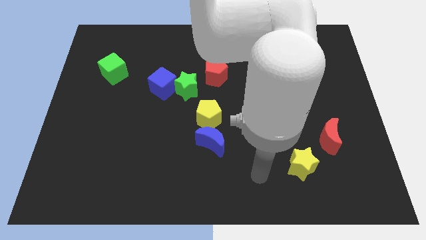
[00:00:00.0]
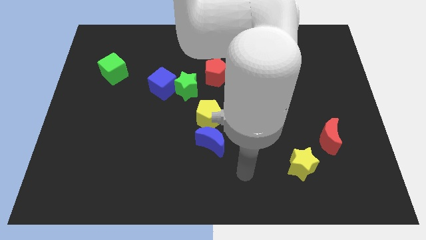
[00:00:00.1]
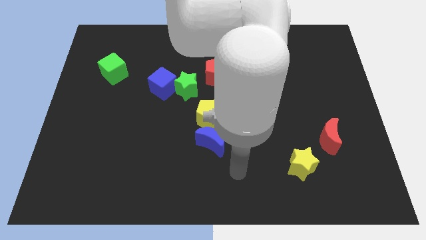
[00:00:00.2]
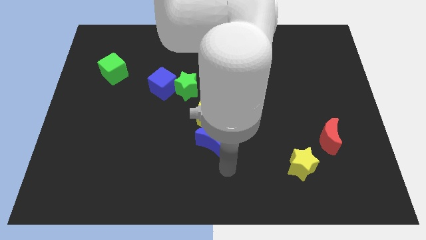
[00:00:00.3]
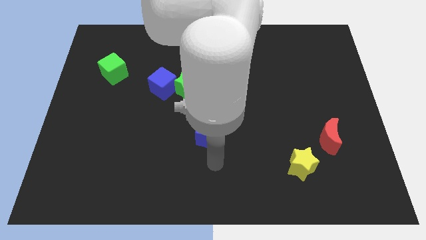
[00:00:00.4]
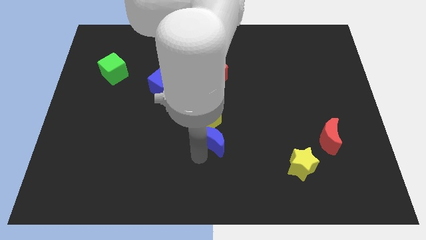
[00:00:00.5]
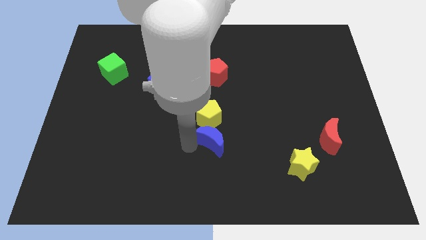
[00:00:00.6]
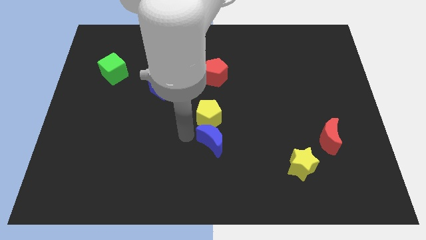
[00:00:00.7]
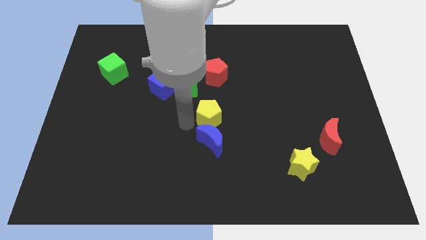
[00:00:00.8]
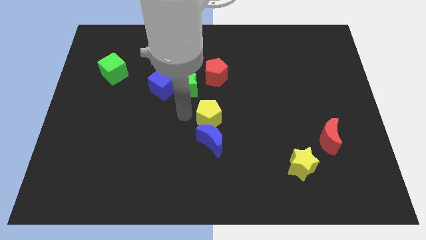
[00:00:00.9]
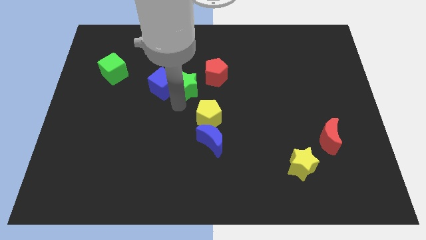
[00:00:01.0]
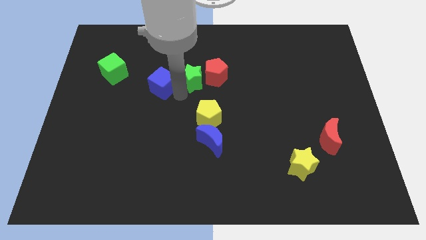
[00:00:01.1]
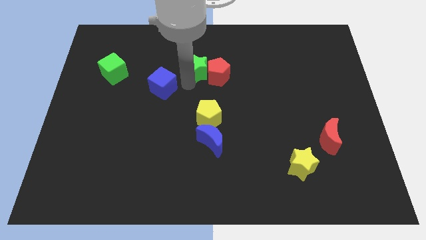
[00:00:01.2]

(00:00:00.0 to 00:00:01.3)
move the blue cube away from the green star

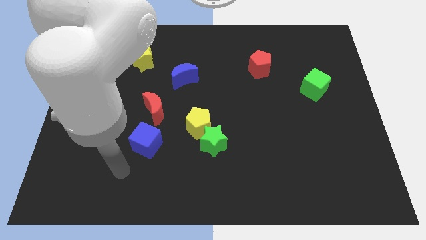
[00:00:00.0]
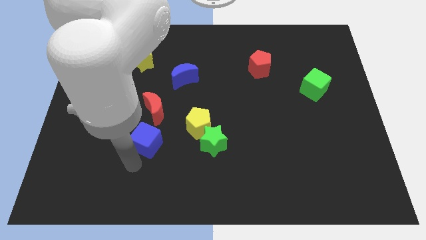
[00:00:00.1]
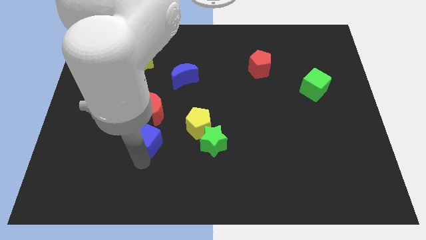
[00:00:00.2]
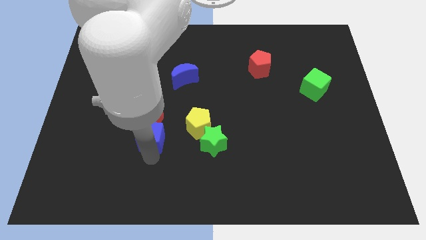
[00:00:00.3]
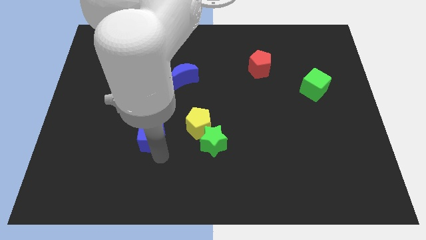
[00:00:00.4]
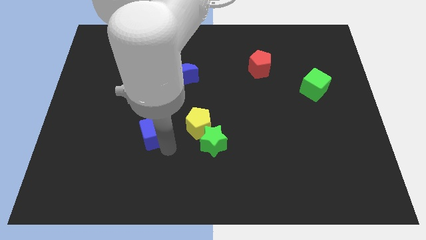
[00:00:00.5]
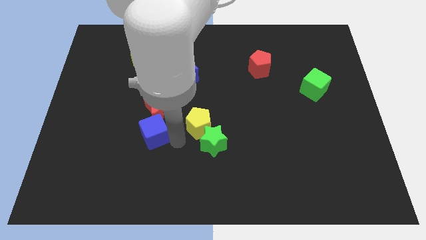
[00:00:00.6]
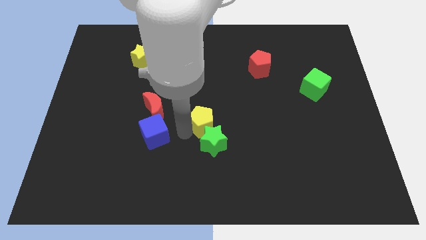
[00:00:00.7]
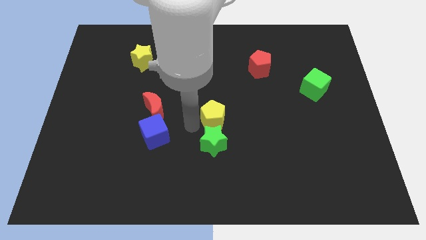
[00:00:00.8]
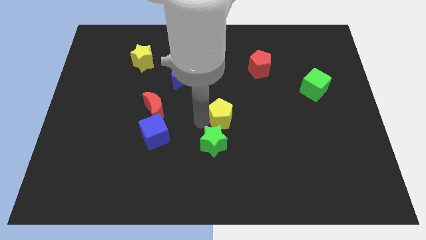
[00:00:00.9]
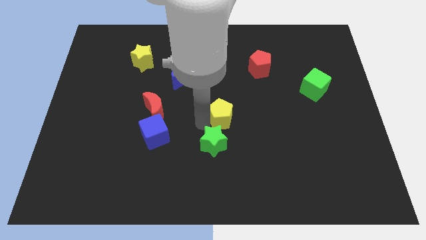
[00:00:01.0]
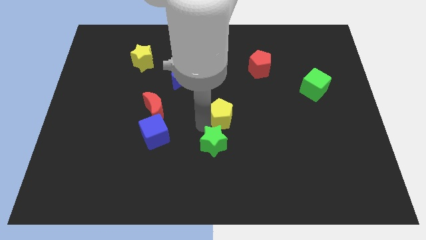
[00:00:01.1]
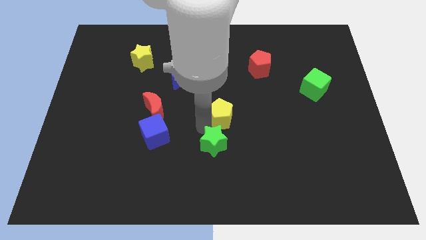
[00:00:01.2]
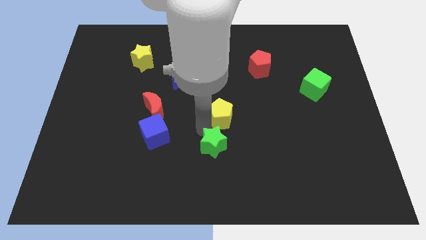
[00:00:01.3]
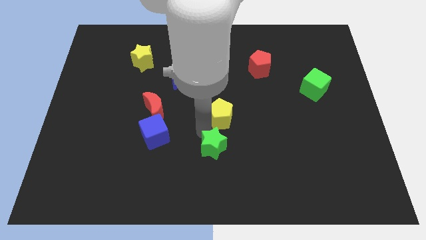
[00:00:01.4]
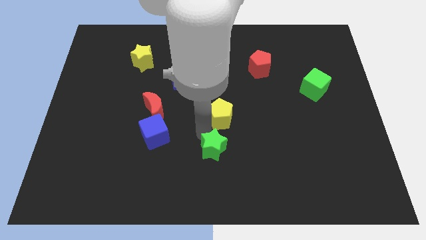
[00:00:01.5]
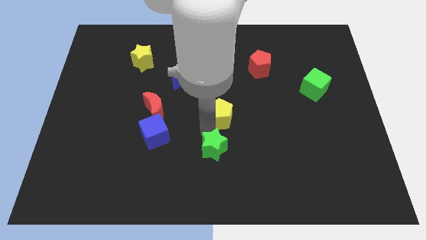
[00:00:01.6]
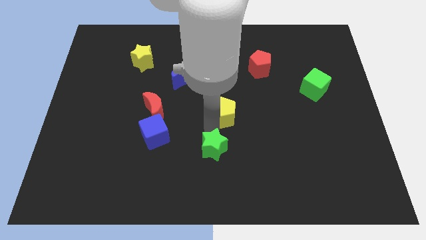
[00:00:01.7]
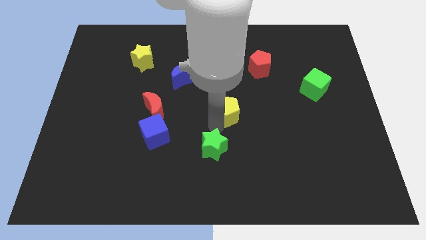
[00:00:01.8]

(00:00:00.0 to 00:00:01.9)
pull the green star apart from the yellow pentagon

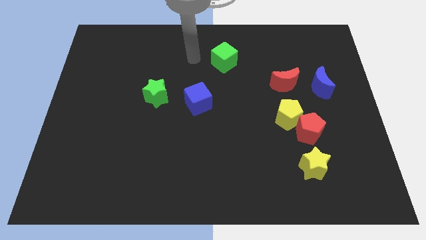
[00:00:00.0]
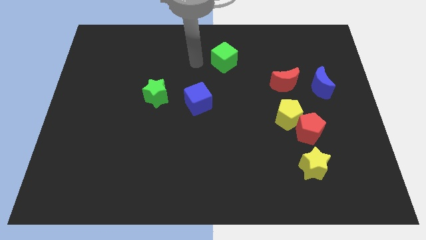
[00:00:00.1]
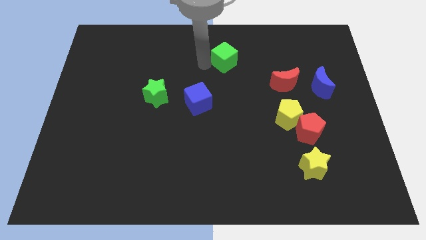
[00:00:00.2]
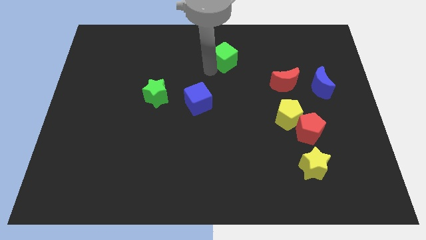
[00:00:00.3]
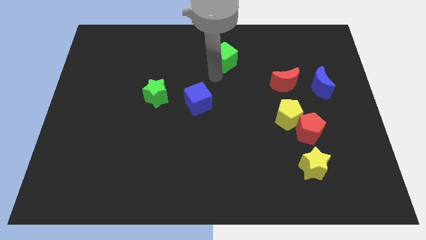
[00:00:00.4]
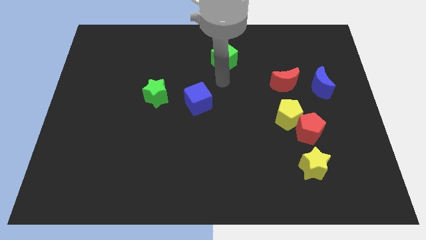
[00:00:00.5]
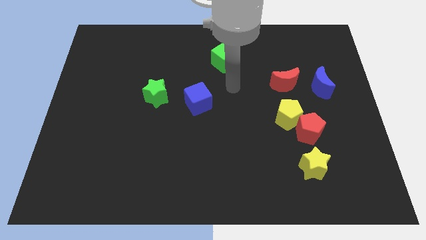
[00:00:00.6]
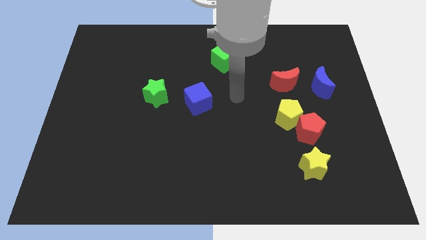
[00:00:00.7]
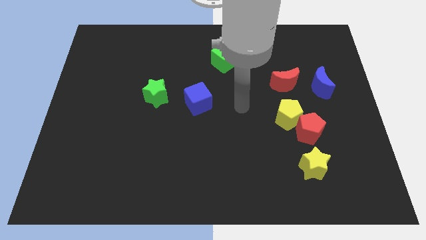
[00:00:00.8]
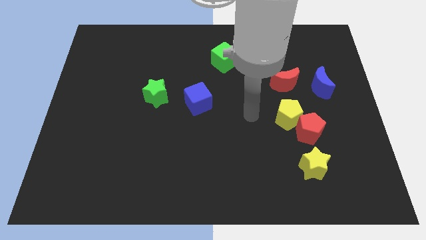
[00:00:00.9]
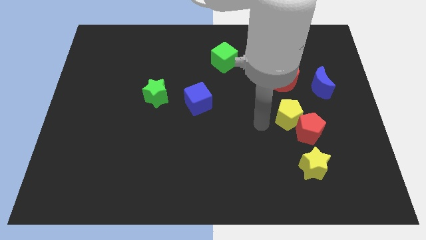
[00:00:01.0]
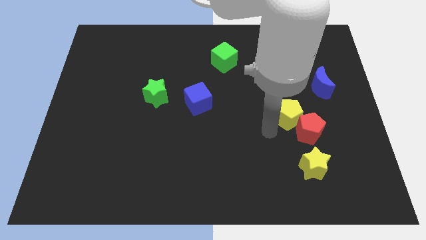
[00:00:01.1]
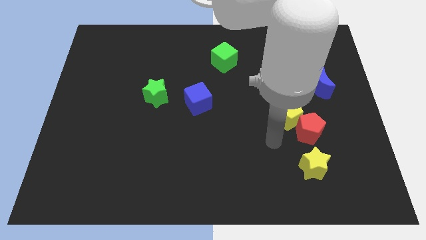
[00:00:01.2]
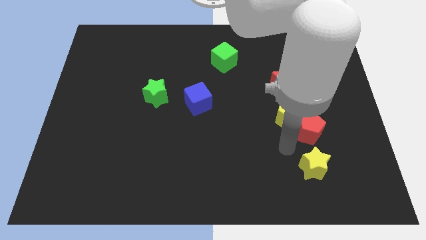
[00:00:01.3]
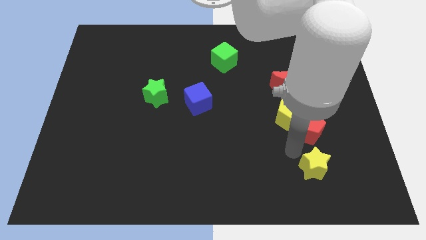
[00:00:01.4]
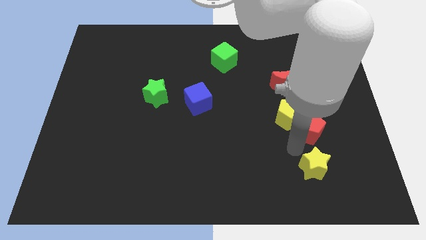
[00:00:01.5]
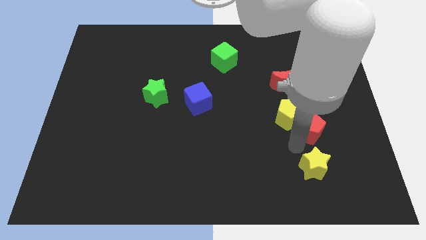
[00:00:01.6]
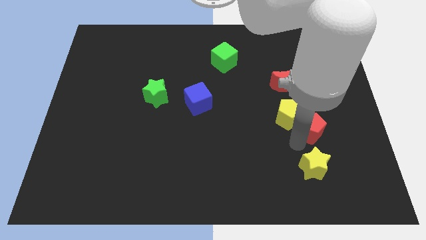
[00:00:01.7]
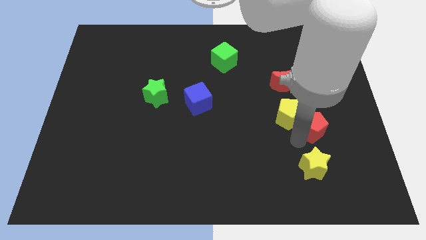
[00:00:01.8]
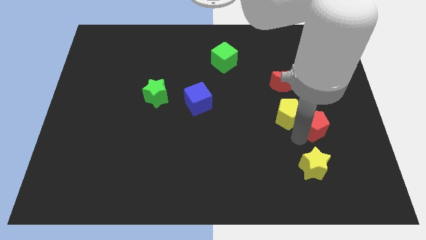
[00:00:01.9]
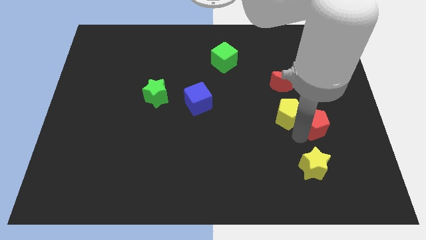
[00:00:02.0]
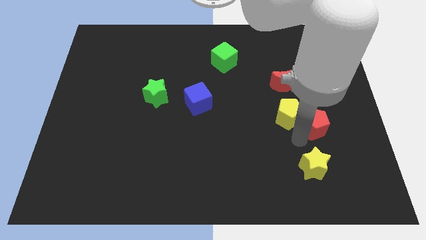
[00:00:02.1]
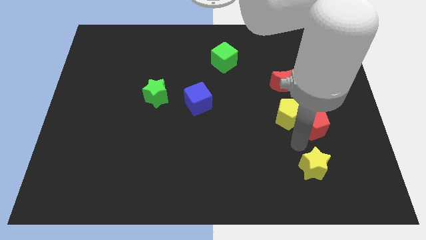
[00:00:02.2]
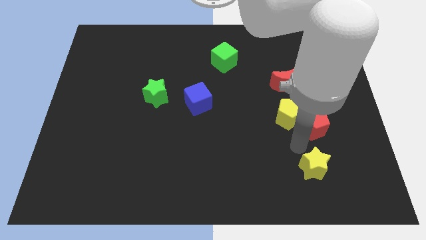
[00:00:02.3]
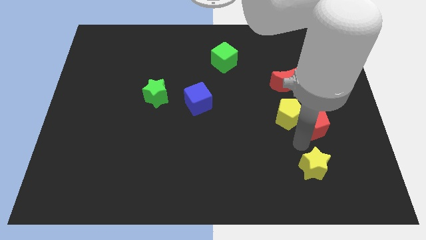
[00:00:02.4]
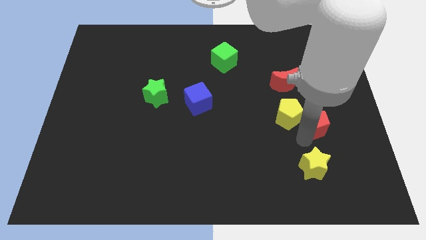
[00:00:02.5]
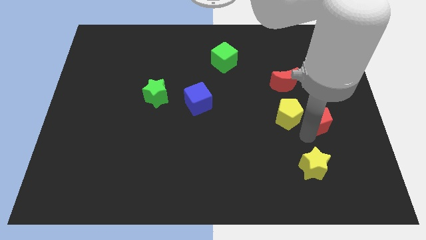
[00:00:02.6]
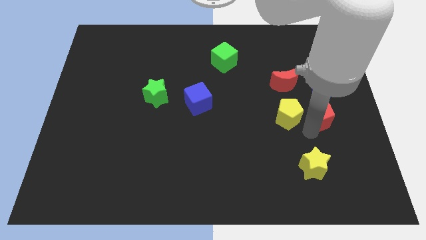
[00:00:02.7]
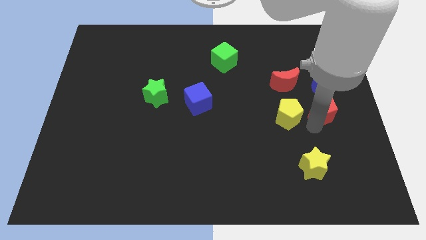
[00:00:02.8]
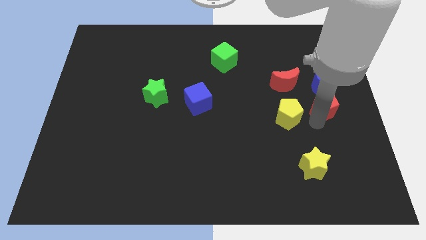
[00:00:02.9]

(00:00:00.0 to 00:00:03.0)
pull the red pentagon apart from the yellow pentagon and yellow star

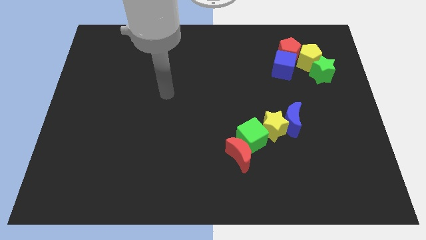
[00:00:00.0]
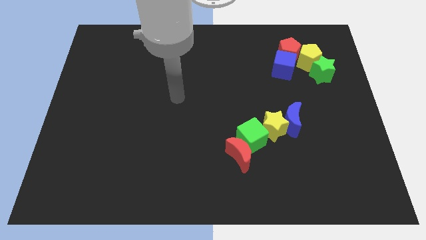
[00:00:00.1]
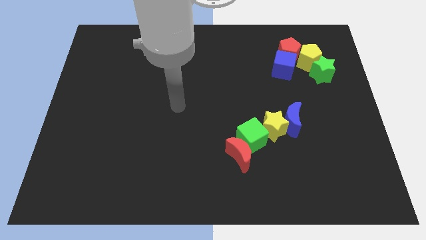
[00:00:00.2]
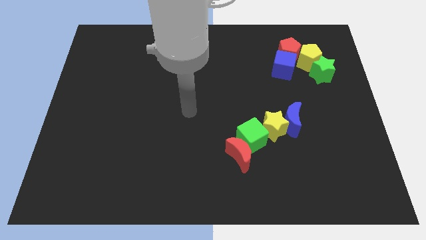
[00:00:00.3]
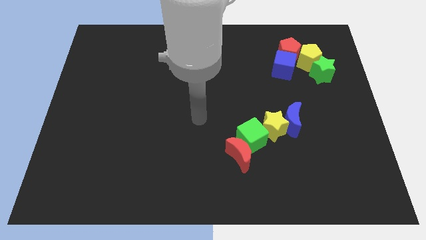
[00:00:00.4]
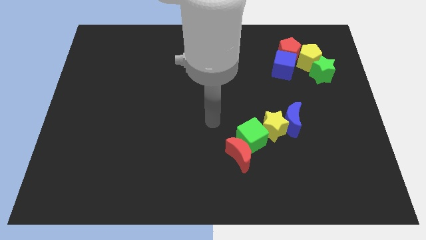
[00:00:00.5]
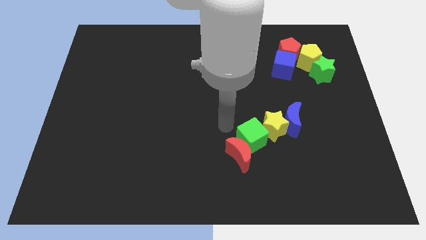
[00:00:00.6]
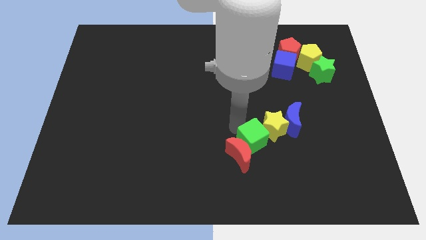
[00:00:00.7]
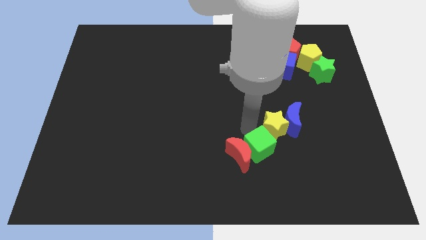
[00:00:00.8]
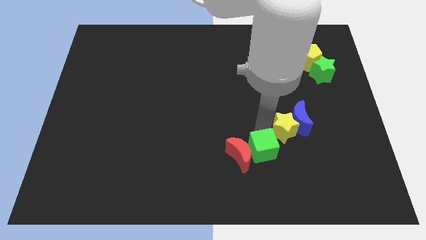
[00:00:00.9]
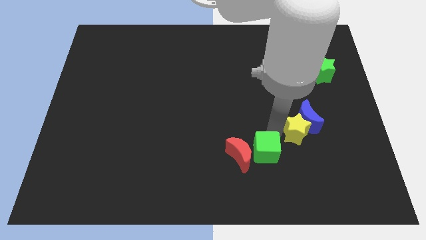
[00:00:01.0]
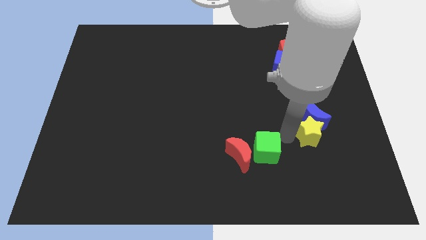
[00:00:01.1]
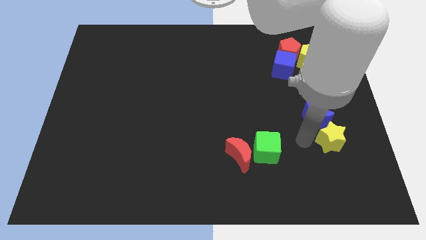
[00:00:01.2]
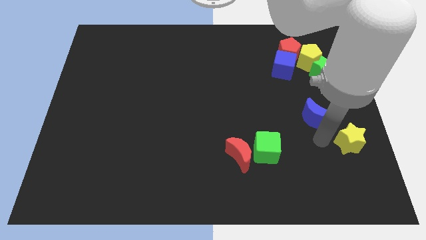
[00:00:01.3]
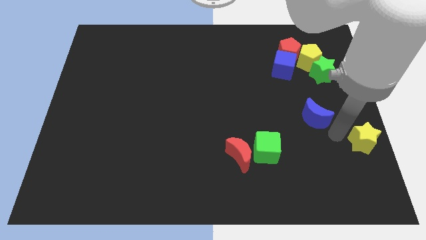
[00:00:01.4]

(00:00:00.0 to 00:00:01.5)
separate the blue moon from the yellow star

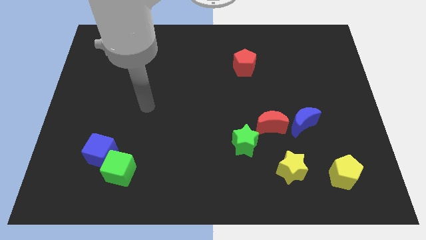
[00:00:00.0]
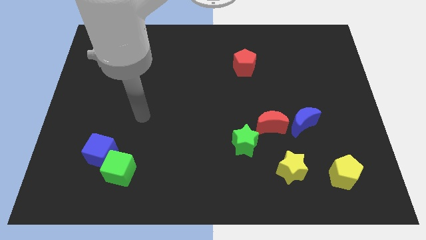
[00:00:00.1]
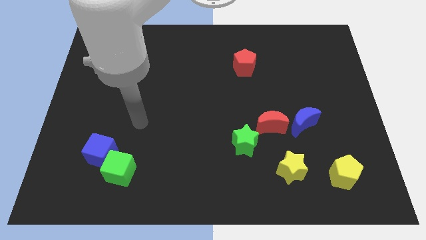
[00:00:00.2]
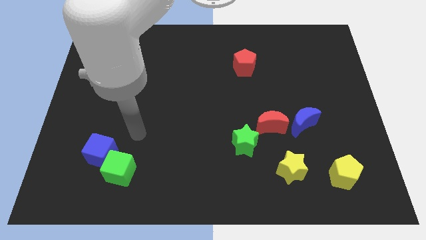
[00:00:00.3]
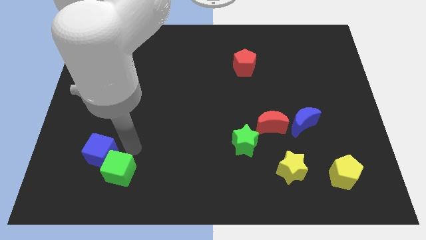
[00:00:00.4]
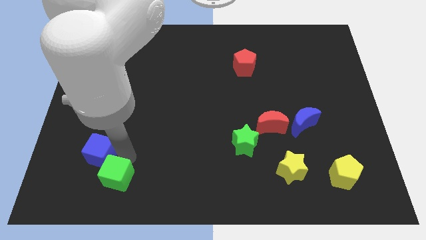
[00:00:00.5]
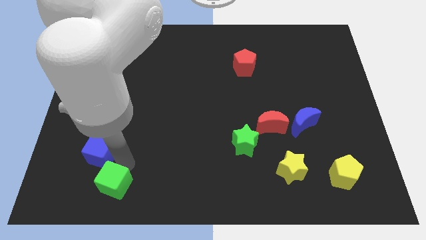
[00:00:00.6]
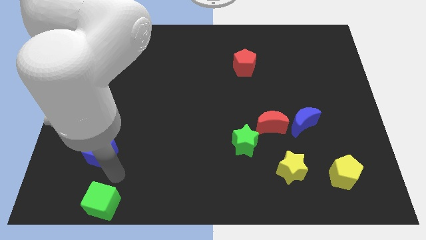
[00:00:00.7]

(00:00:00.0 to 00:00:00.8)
move the blue cube away from the green cube

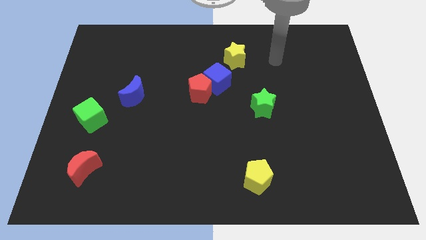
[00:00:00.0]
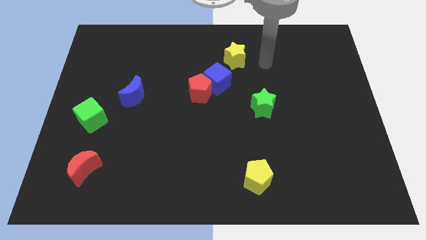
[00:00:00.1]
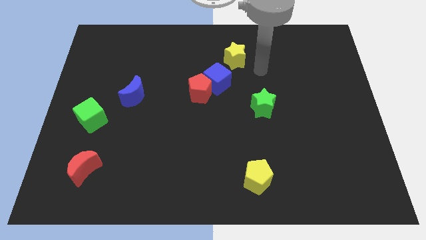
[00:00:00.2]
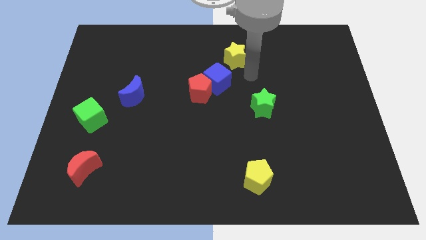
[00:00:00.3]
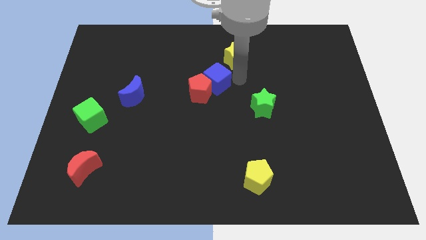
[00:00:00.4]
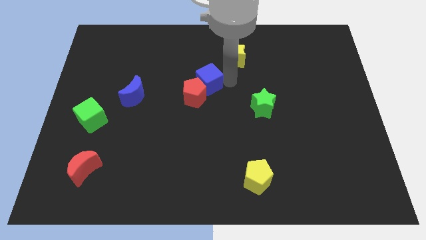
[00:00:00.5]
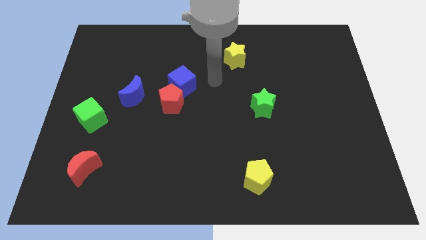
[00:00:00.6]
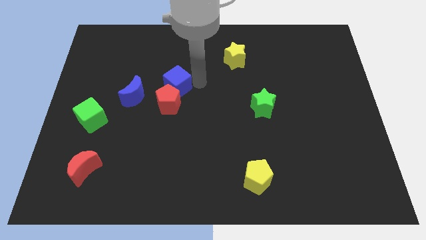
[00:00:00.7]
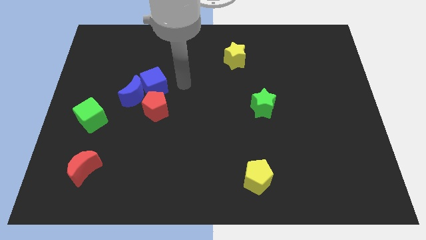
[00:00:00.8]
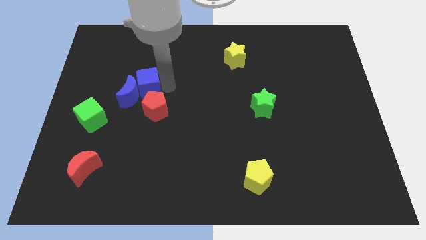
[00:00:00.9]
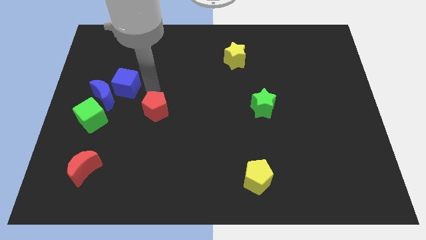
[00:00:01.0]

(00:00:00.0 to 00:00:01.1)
pull the red pentagon apart from the blue cube
